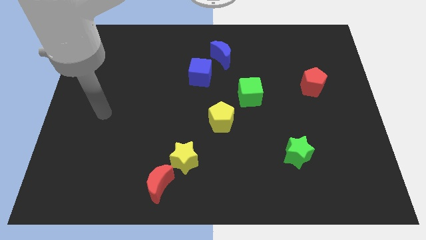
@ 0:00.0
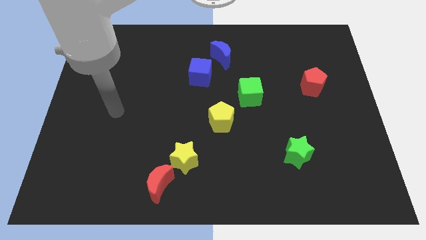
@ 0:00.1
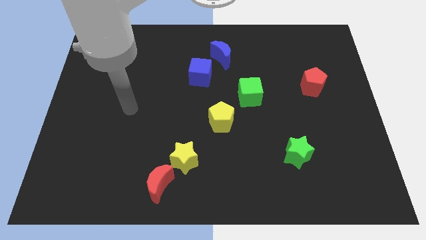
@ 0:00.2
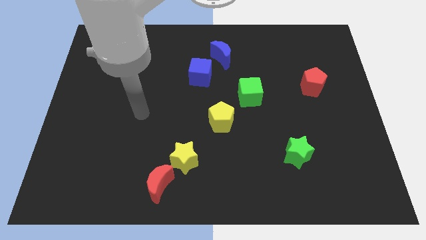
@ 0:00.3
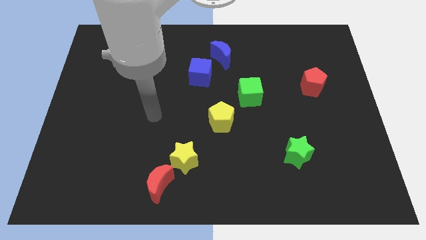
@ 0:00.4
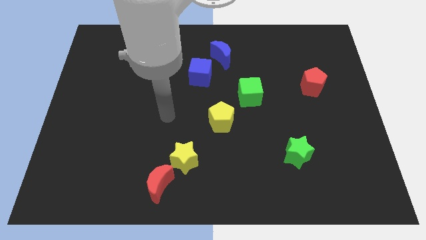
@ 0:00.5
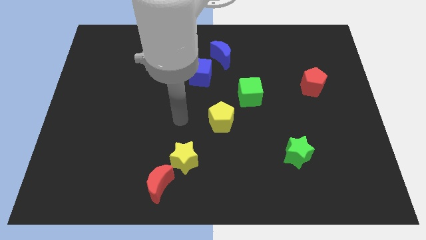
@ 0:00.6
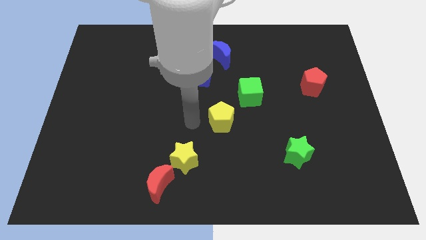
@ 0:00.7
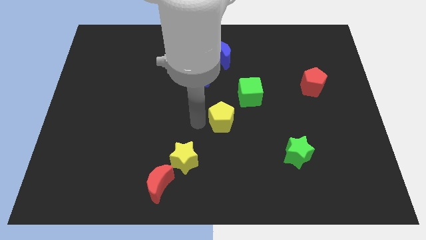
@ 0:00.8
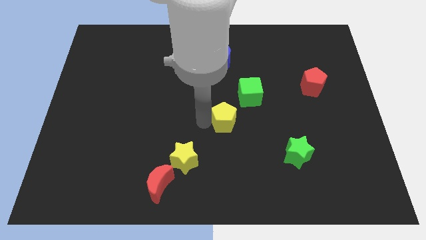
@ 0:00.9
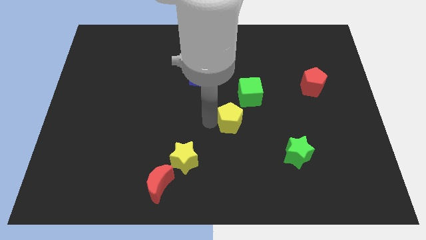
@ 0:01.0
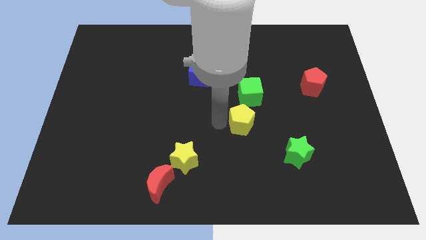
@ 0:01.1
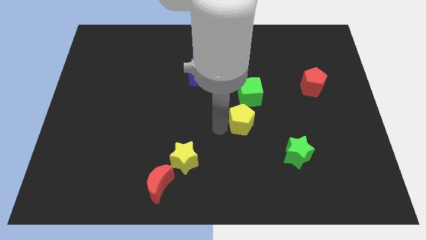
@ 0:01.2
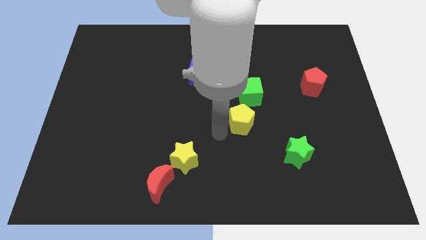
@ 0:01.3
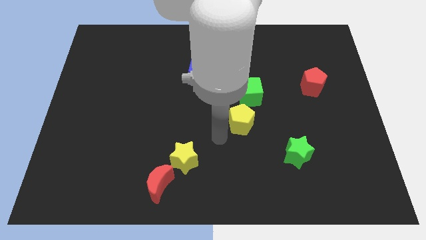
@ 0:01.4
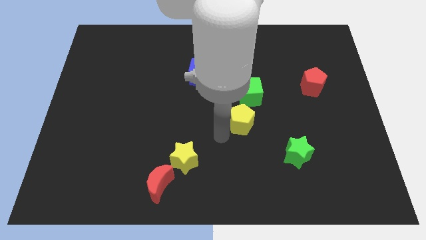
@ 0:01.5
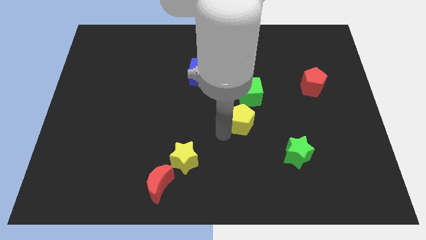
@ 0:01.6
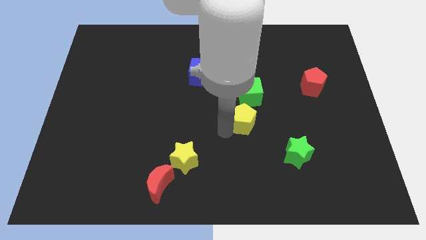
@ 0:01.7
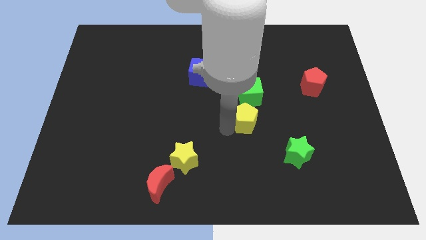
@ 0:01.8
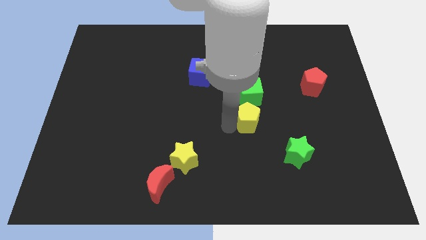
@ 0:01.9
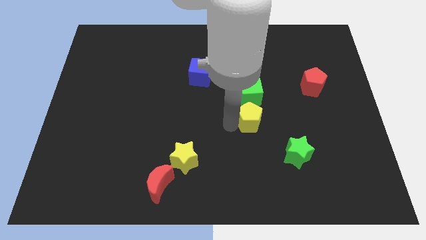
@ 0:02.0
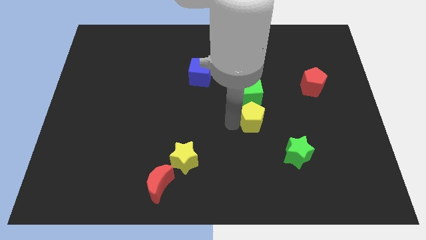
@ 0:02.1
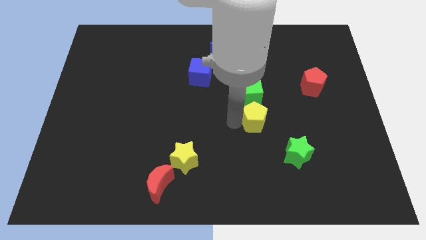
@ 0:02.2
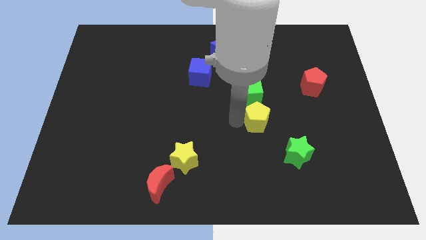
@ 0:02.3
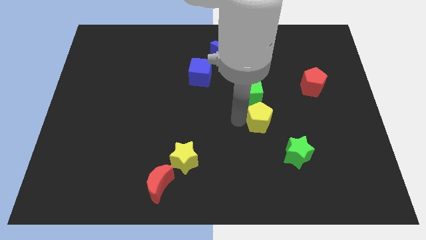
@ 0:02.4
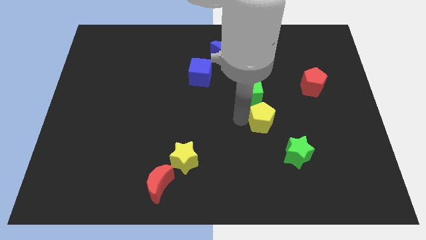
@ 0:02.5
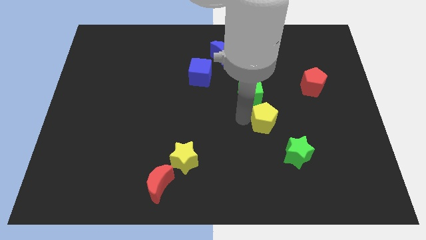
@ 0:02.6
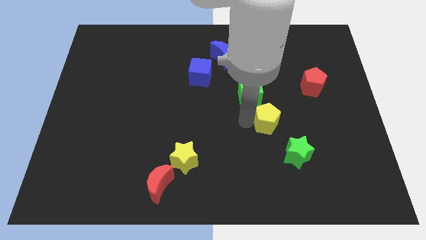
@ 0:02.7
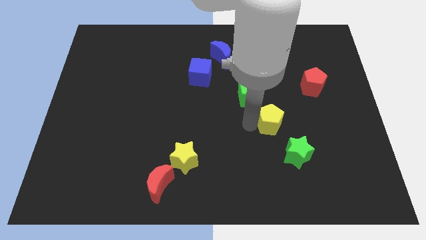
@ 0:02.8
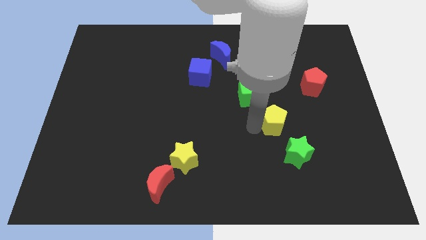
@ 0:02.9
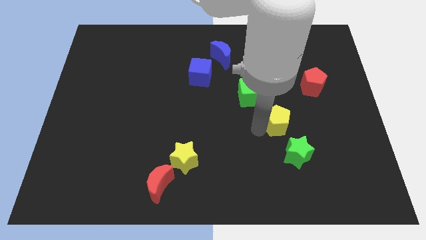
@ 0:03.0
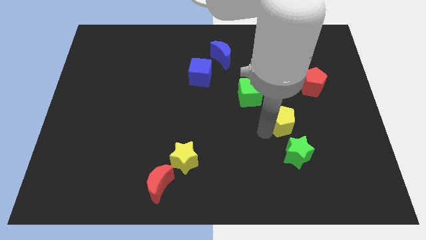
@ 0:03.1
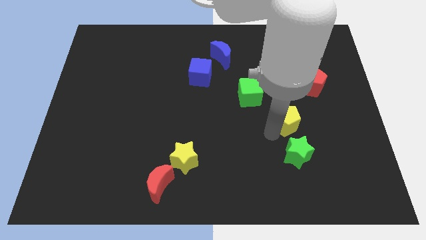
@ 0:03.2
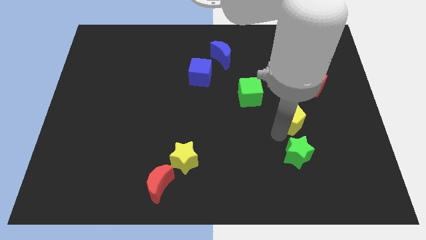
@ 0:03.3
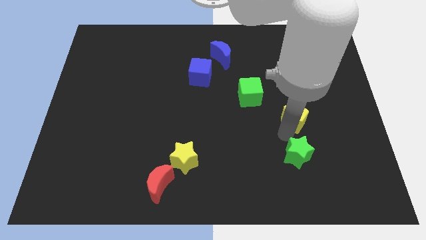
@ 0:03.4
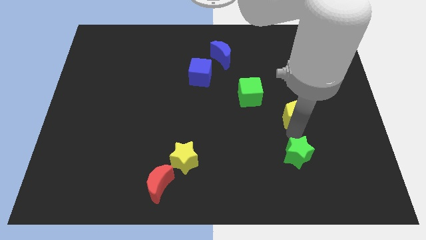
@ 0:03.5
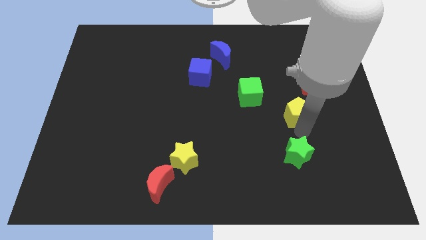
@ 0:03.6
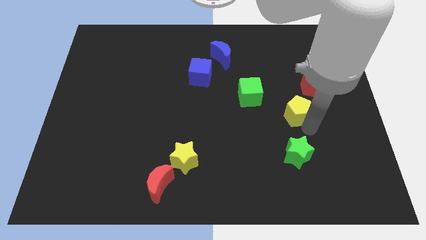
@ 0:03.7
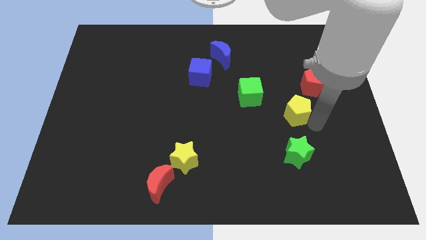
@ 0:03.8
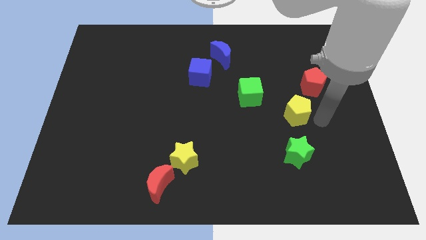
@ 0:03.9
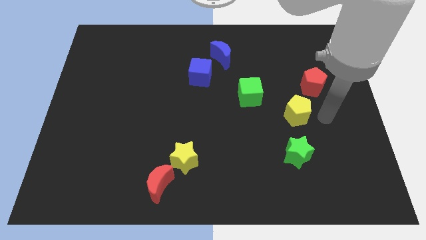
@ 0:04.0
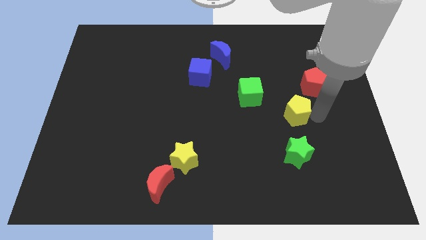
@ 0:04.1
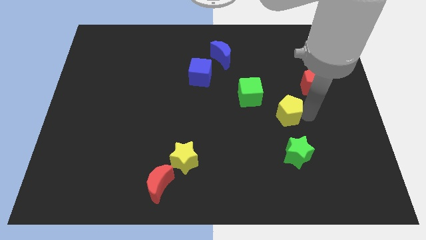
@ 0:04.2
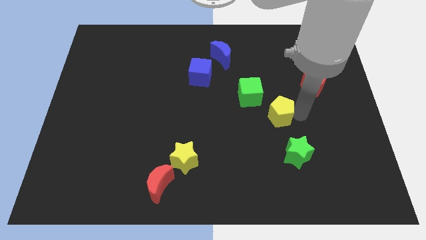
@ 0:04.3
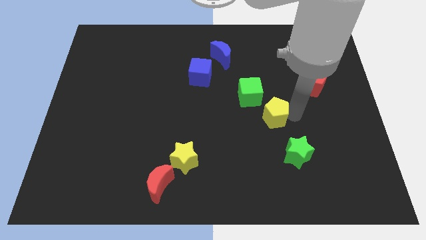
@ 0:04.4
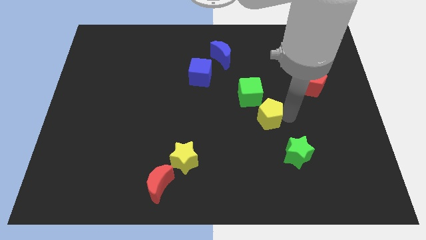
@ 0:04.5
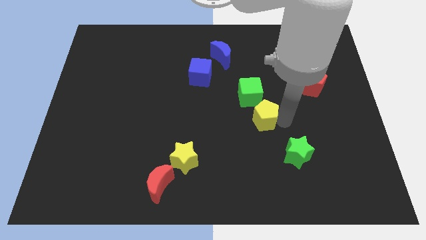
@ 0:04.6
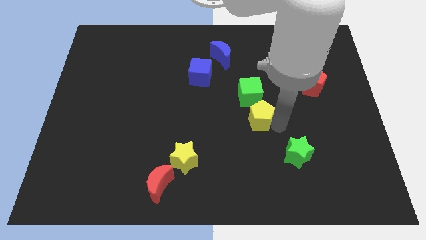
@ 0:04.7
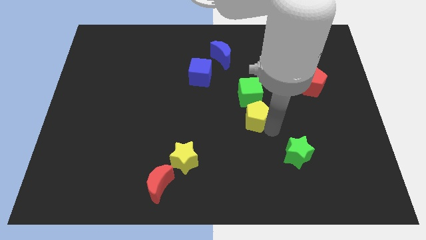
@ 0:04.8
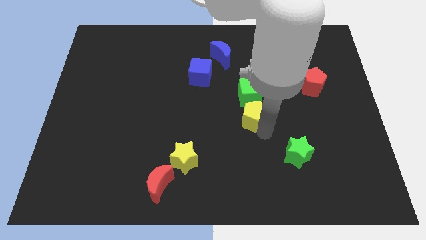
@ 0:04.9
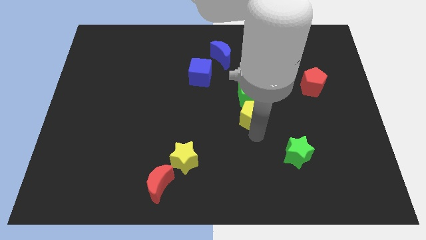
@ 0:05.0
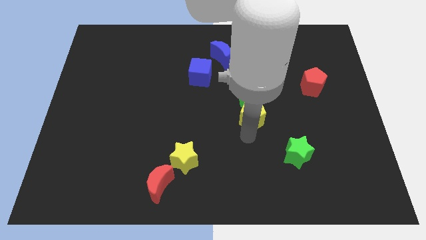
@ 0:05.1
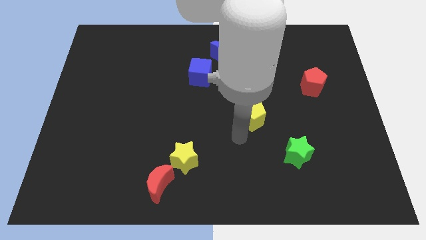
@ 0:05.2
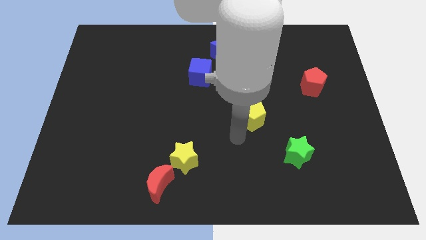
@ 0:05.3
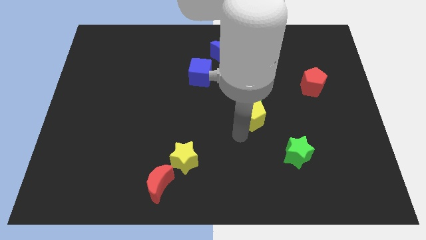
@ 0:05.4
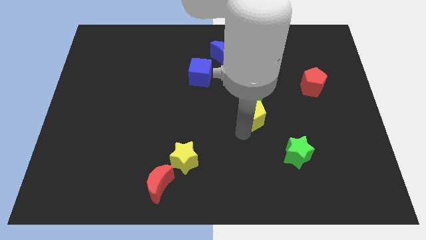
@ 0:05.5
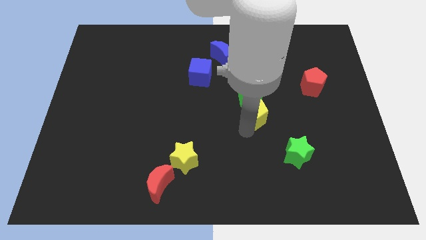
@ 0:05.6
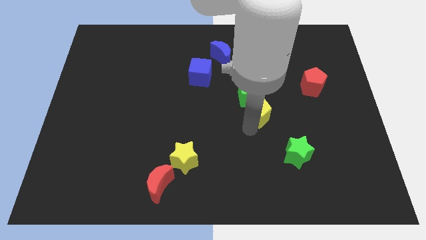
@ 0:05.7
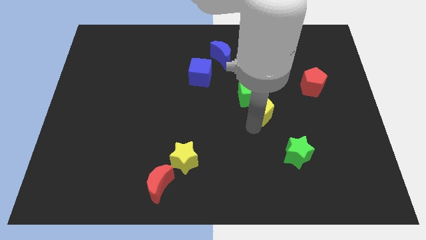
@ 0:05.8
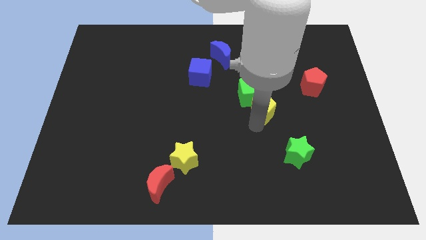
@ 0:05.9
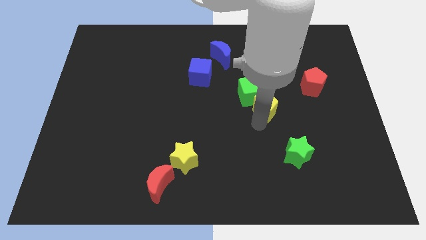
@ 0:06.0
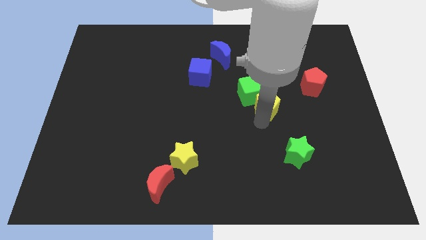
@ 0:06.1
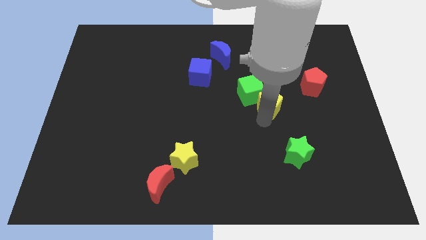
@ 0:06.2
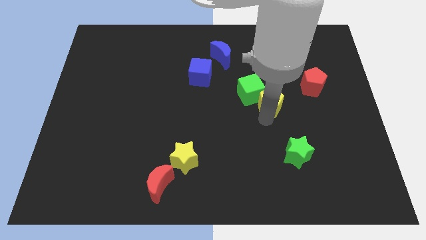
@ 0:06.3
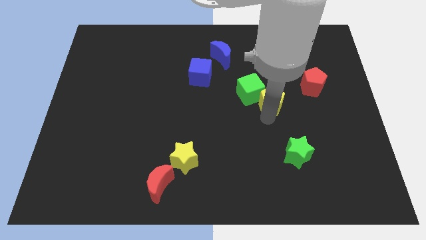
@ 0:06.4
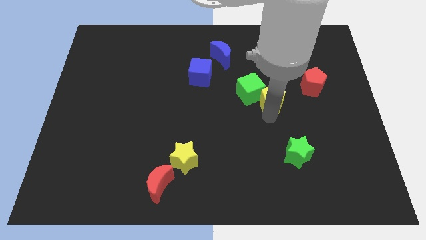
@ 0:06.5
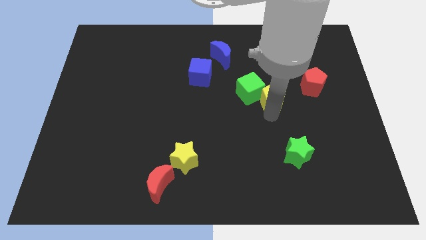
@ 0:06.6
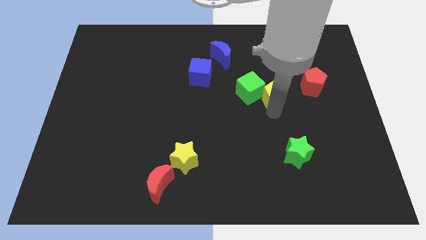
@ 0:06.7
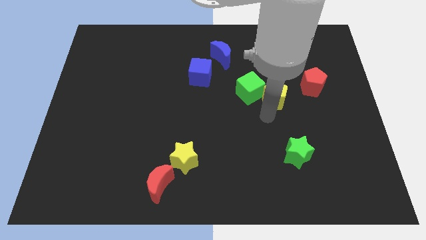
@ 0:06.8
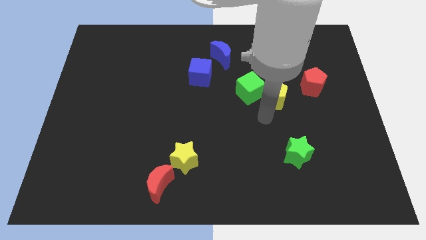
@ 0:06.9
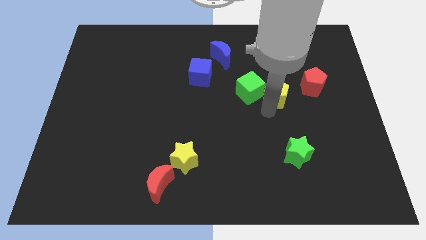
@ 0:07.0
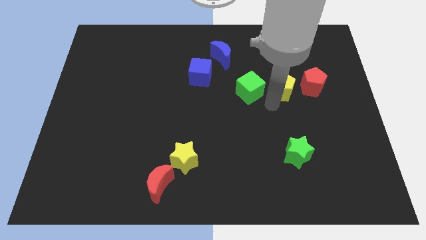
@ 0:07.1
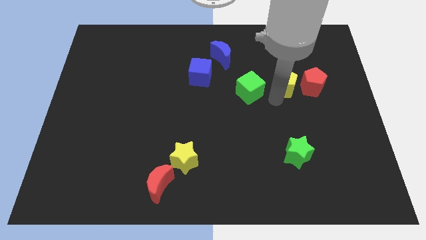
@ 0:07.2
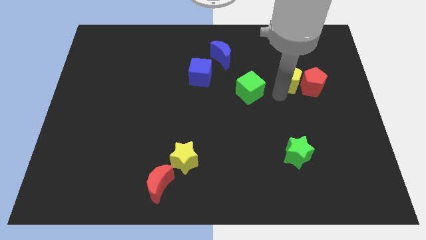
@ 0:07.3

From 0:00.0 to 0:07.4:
slide the yellow pentagon diagonally up and to the left of the red pentagon

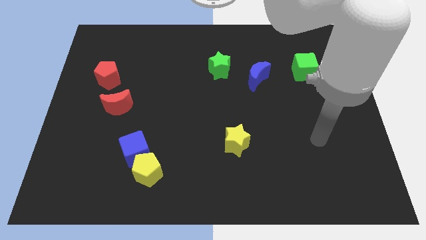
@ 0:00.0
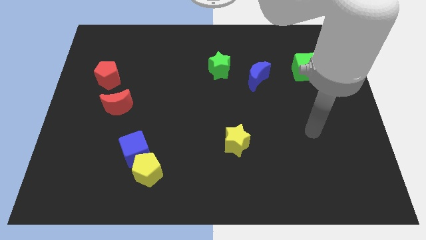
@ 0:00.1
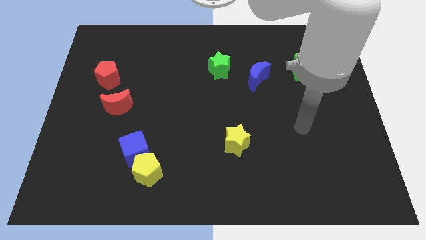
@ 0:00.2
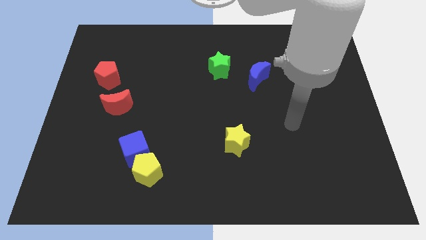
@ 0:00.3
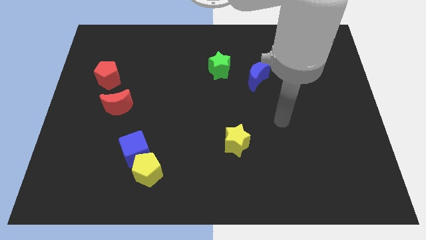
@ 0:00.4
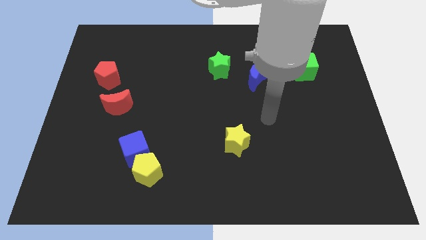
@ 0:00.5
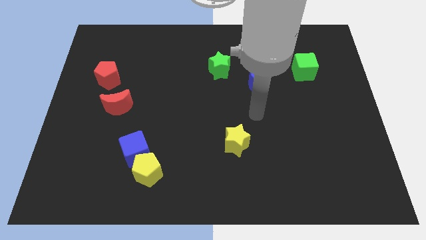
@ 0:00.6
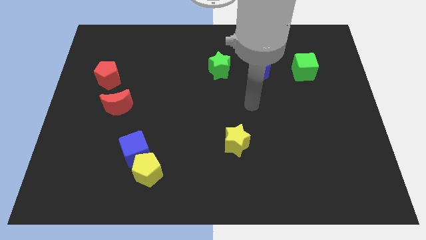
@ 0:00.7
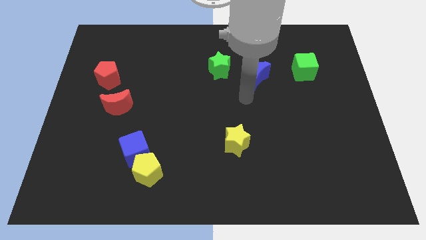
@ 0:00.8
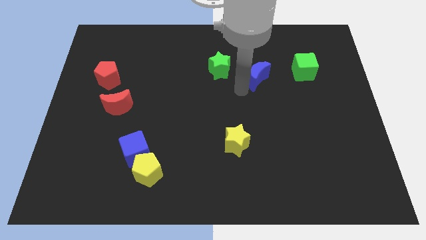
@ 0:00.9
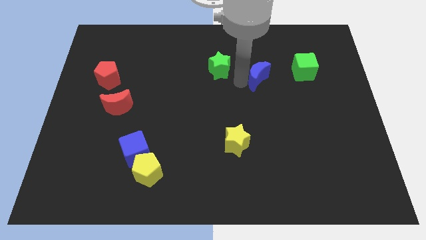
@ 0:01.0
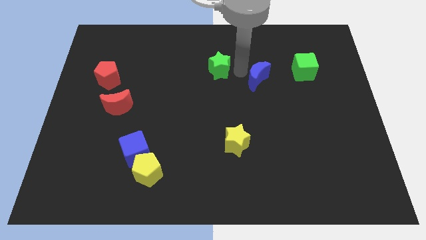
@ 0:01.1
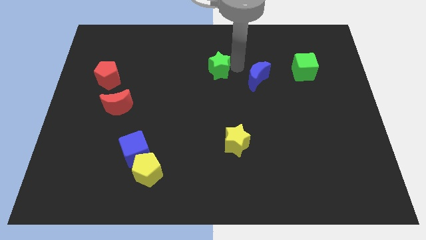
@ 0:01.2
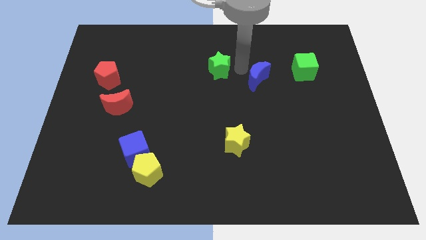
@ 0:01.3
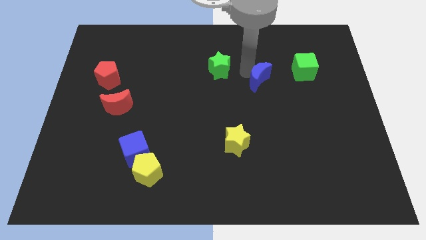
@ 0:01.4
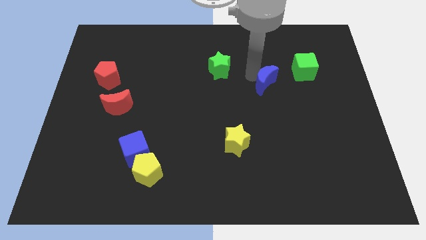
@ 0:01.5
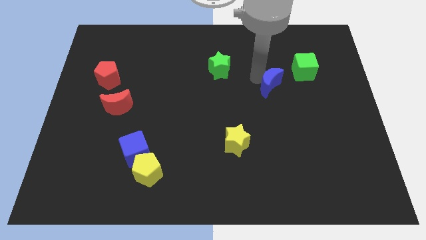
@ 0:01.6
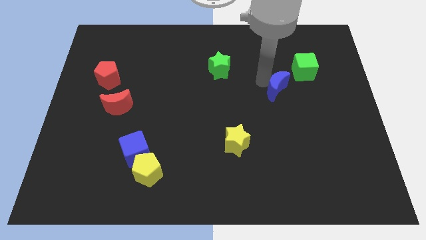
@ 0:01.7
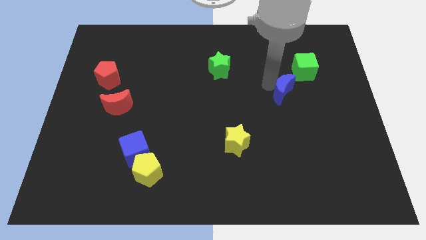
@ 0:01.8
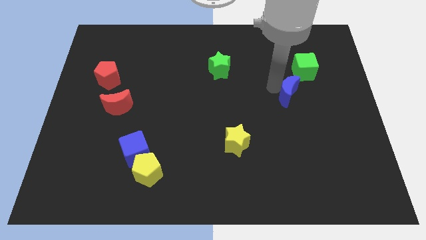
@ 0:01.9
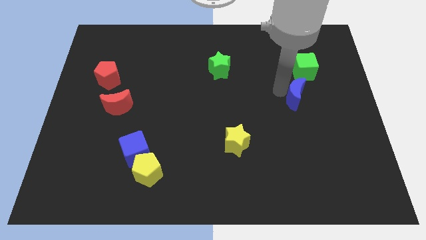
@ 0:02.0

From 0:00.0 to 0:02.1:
put the blue moon to the bottom of the green cube
